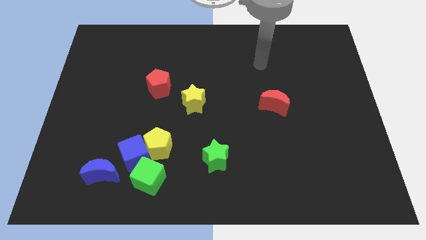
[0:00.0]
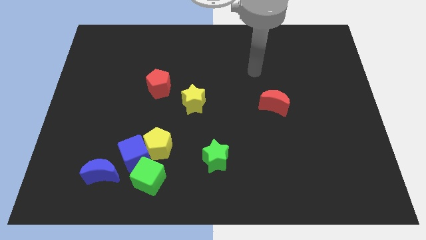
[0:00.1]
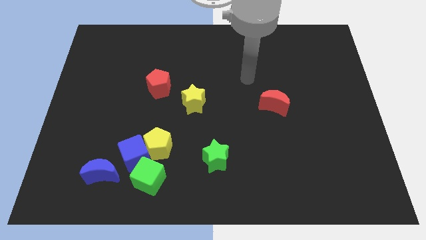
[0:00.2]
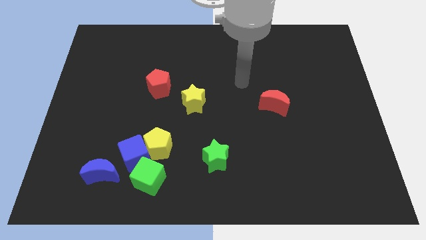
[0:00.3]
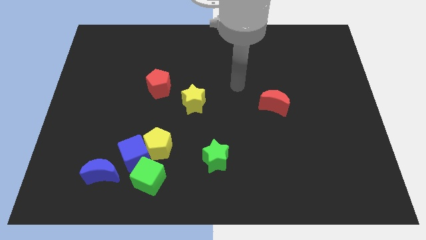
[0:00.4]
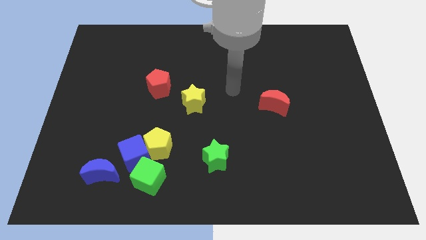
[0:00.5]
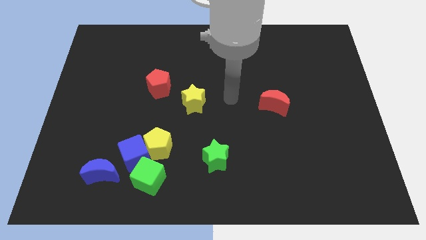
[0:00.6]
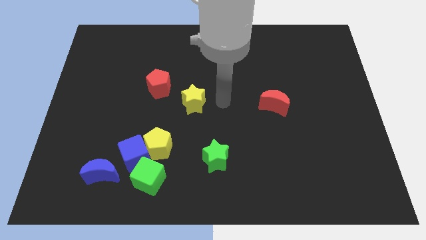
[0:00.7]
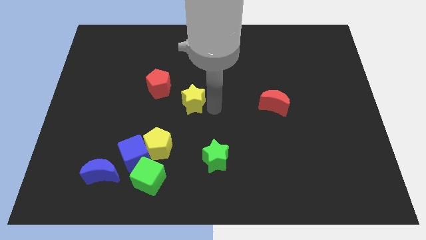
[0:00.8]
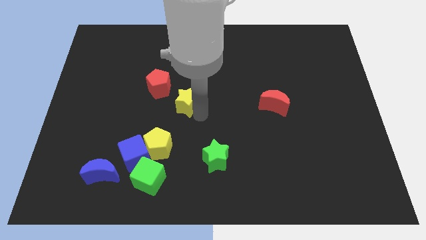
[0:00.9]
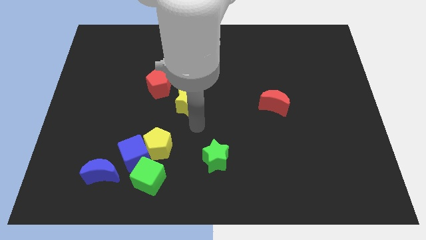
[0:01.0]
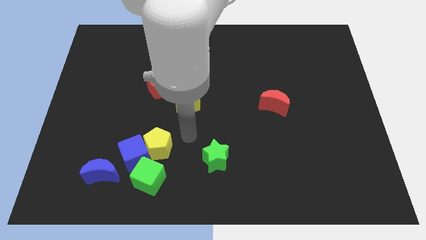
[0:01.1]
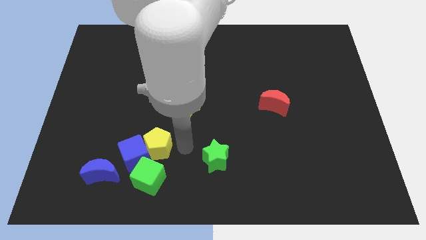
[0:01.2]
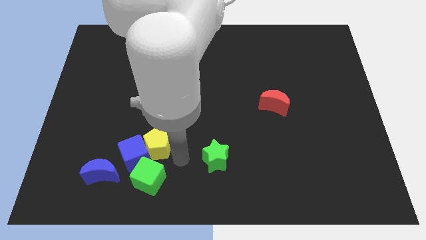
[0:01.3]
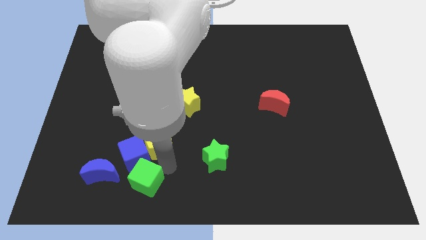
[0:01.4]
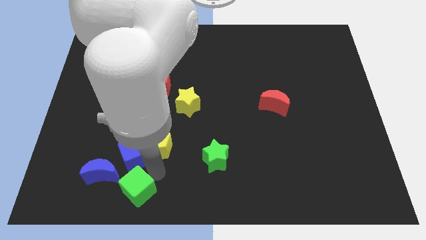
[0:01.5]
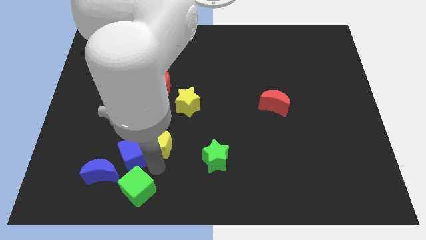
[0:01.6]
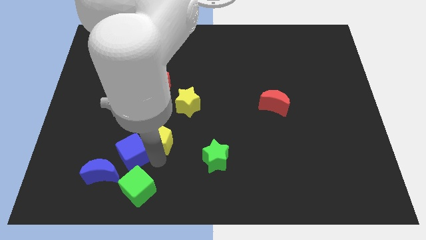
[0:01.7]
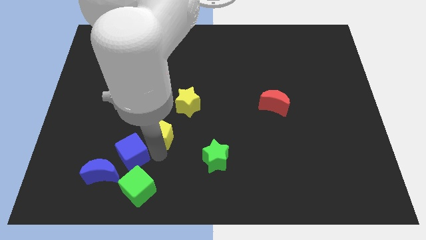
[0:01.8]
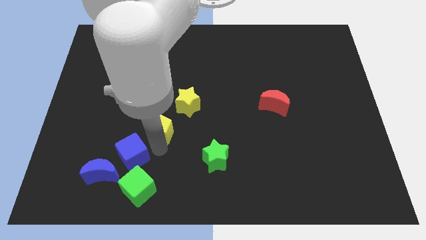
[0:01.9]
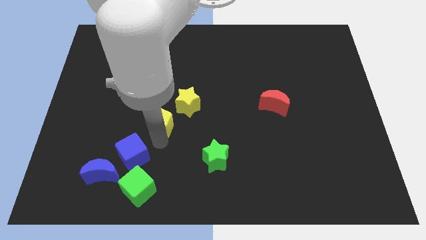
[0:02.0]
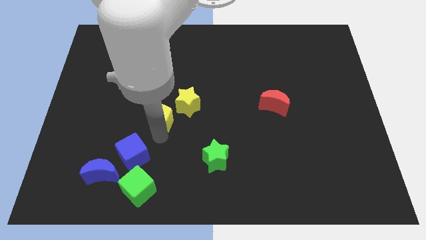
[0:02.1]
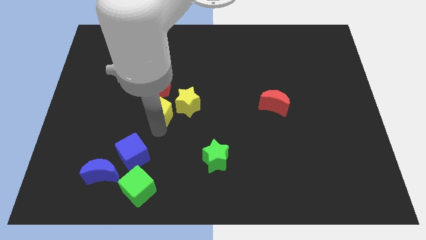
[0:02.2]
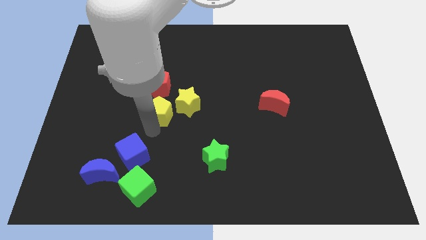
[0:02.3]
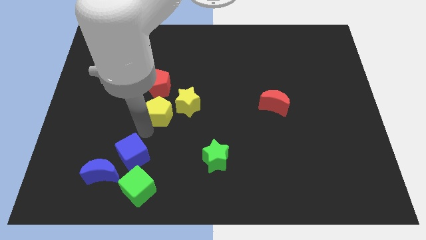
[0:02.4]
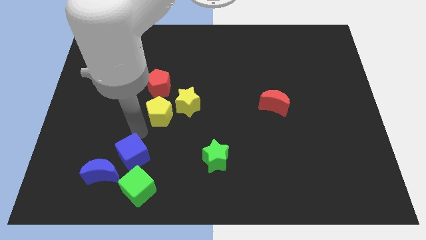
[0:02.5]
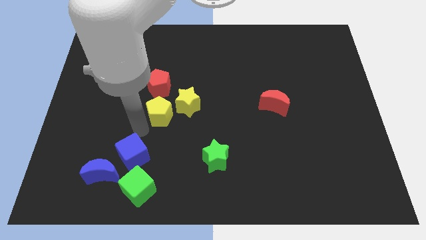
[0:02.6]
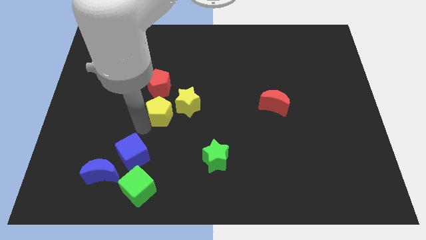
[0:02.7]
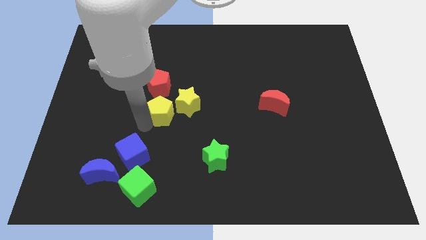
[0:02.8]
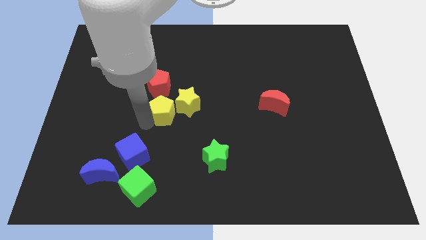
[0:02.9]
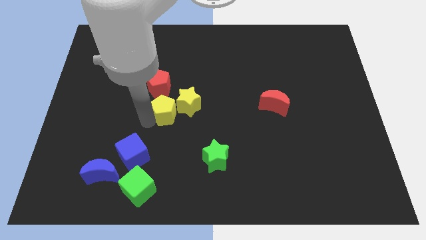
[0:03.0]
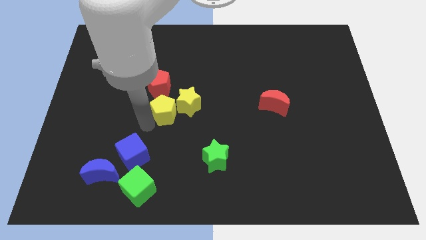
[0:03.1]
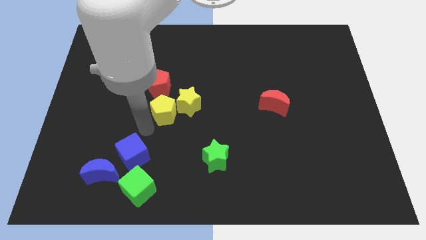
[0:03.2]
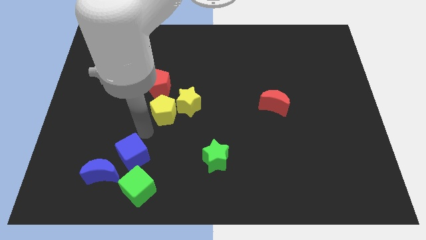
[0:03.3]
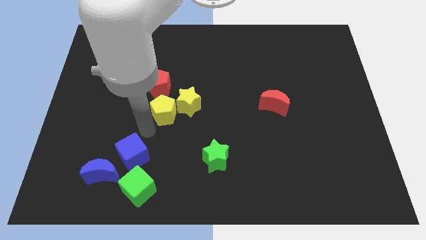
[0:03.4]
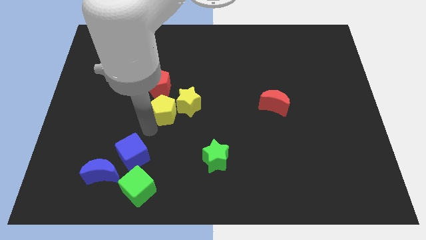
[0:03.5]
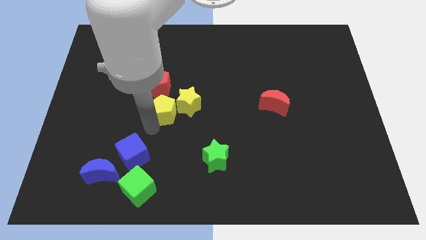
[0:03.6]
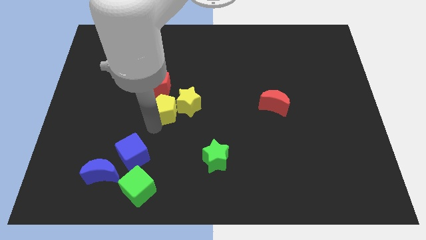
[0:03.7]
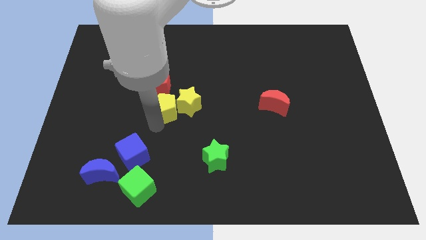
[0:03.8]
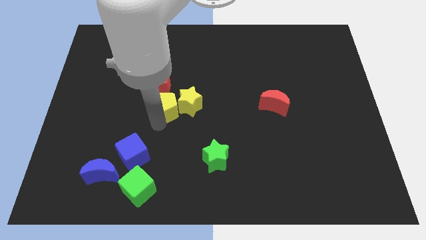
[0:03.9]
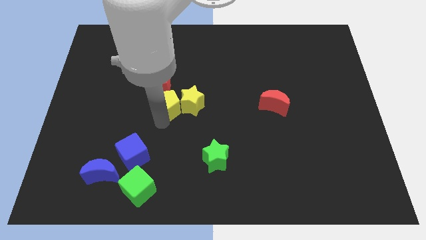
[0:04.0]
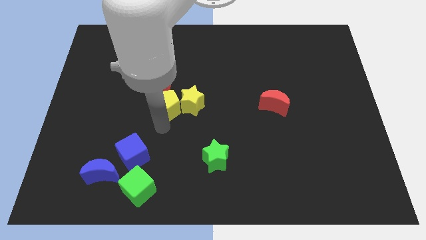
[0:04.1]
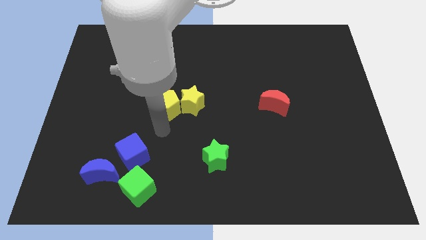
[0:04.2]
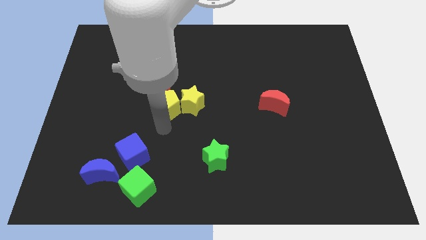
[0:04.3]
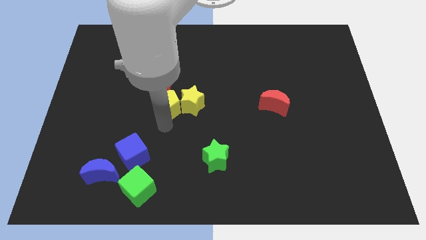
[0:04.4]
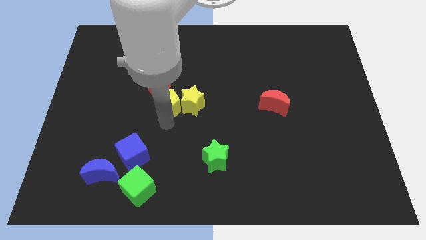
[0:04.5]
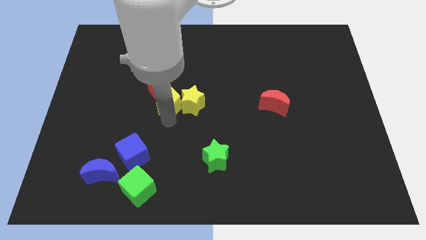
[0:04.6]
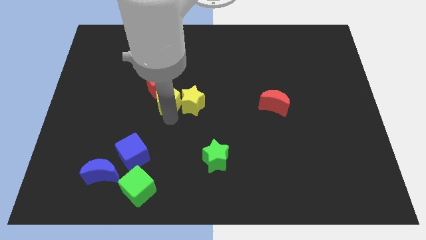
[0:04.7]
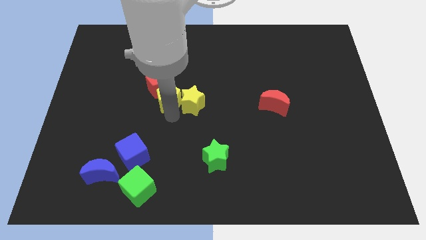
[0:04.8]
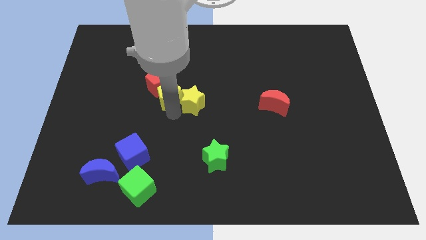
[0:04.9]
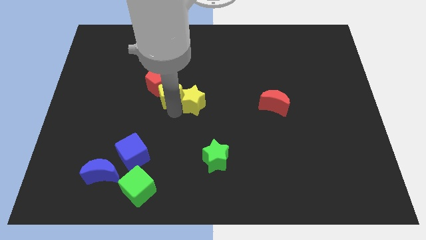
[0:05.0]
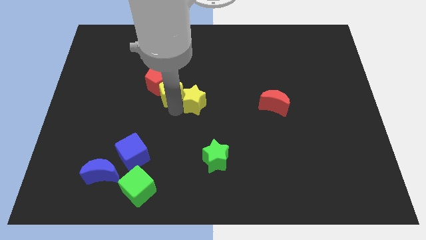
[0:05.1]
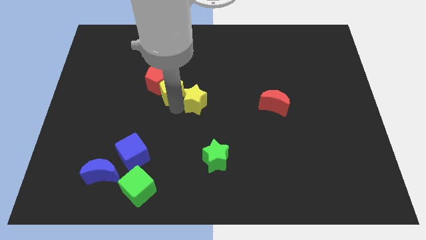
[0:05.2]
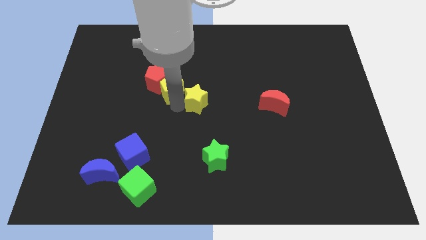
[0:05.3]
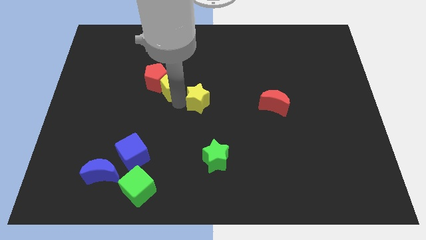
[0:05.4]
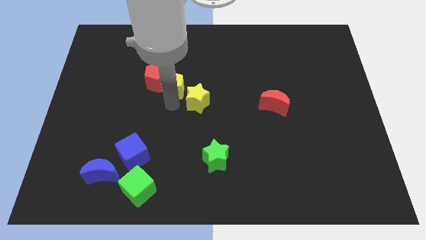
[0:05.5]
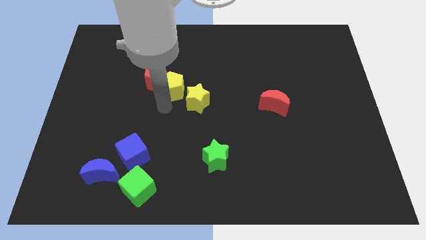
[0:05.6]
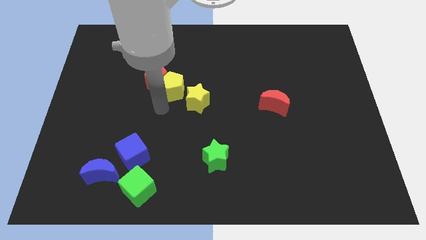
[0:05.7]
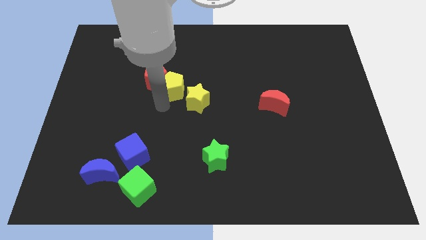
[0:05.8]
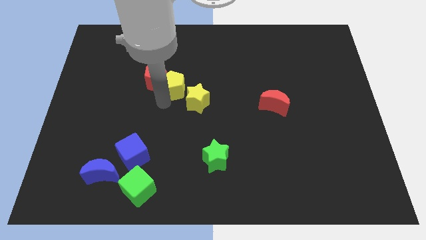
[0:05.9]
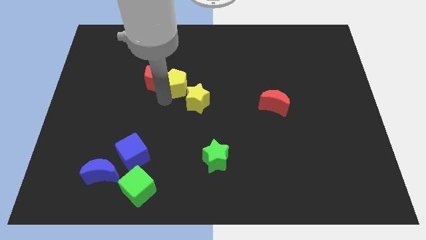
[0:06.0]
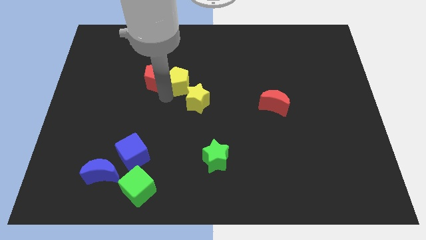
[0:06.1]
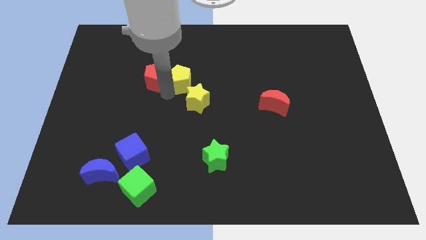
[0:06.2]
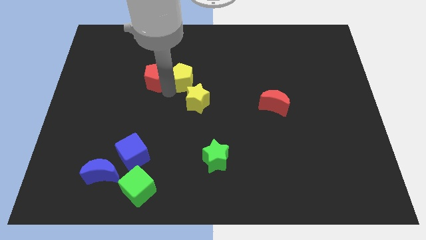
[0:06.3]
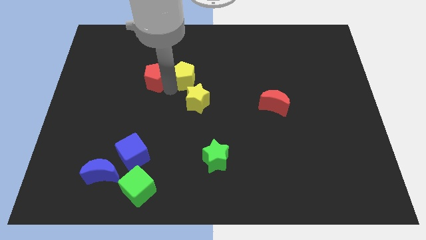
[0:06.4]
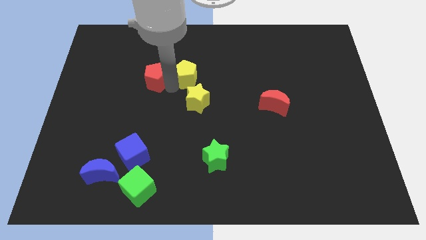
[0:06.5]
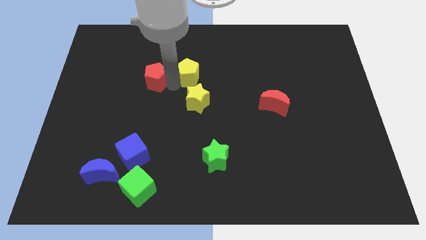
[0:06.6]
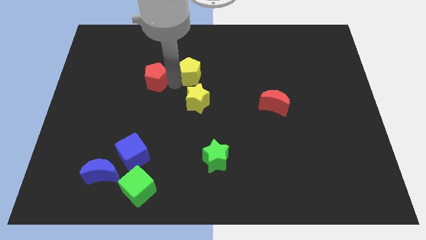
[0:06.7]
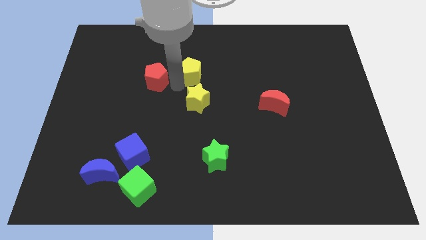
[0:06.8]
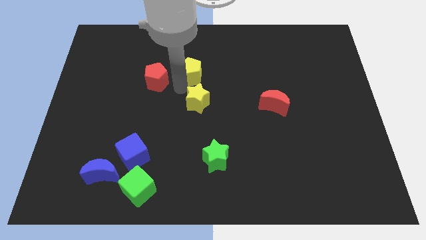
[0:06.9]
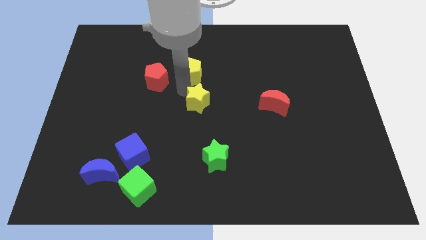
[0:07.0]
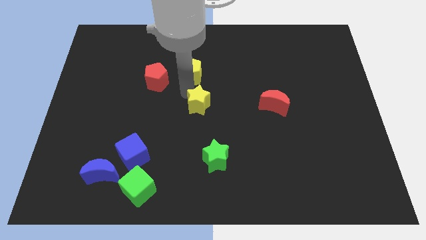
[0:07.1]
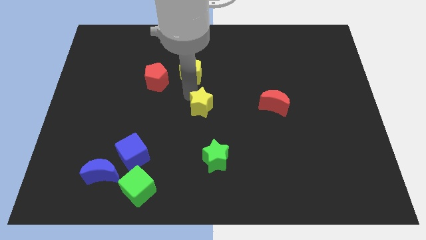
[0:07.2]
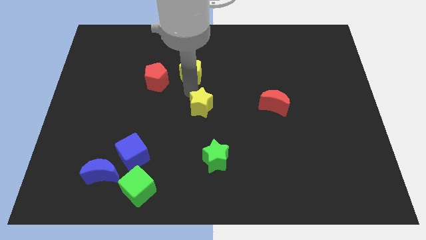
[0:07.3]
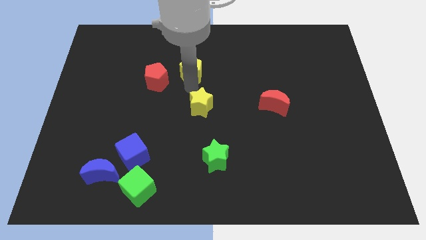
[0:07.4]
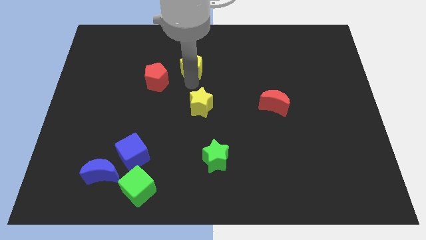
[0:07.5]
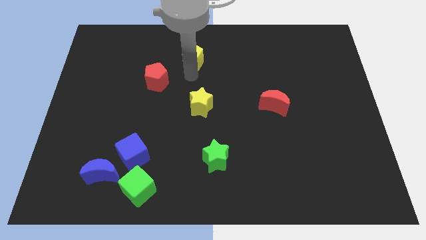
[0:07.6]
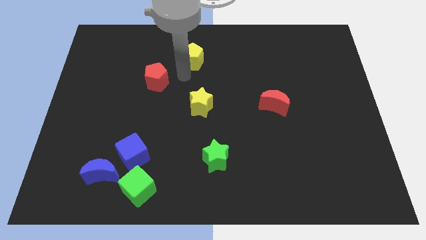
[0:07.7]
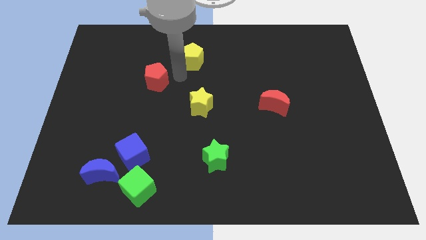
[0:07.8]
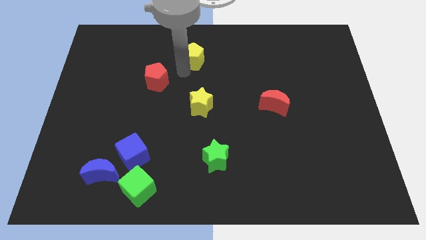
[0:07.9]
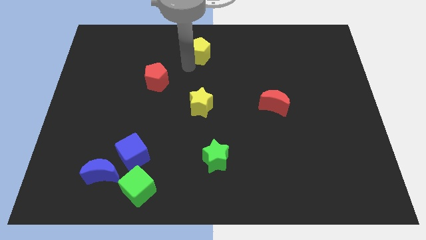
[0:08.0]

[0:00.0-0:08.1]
push the yellow pentagon to the top side
